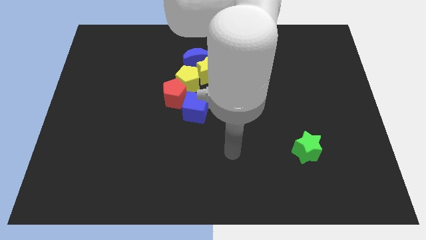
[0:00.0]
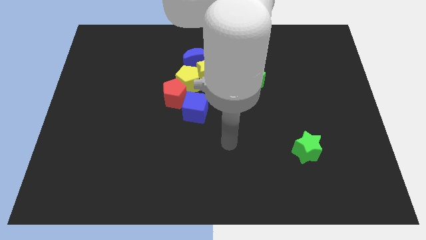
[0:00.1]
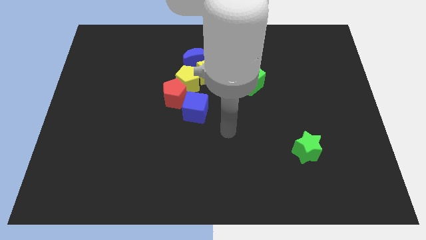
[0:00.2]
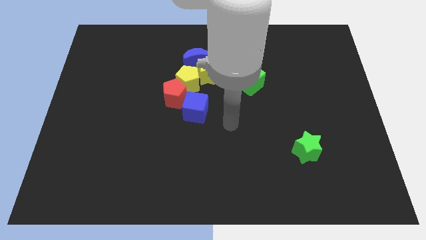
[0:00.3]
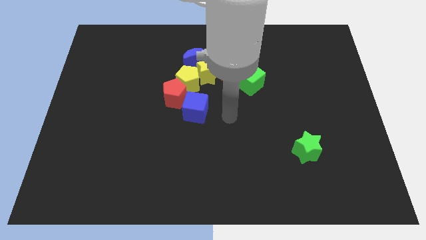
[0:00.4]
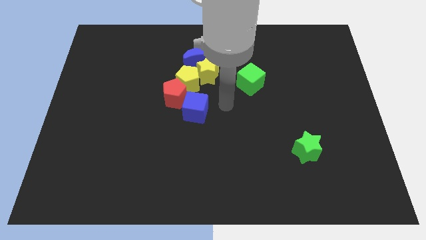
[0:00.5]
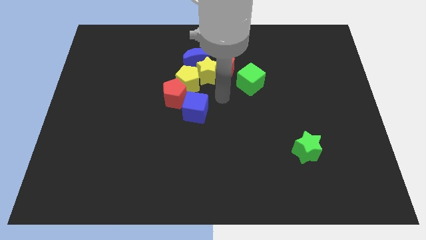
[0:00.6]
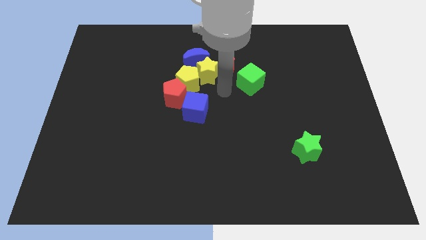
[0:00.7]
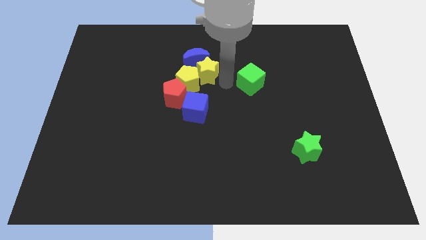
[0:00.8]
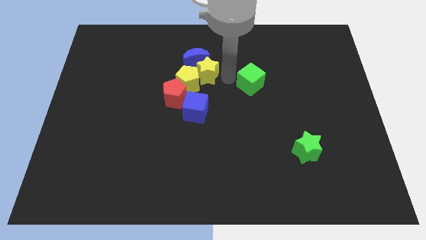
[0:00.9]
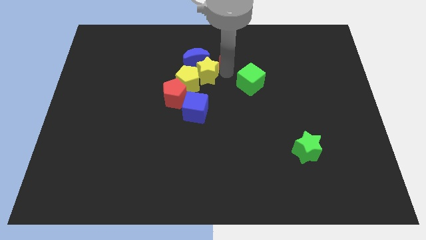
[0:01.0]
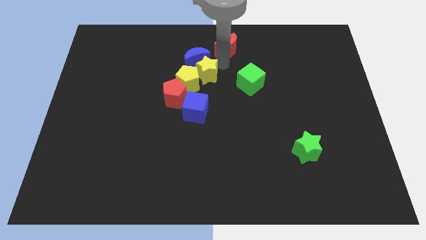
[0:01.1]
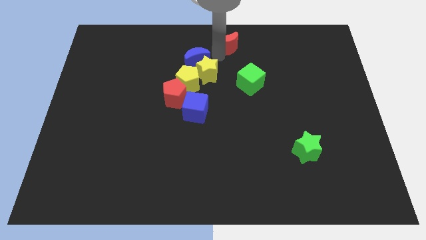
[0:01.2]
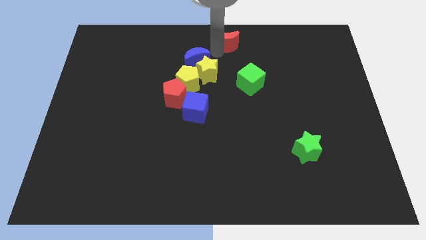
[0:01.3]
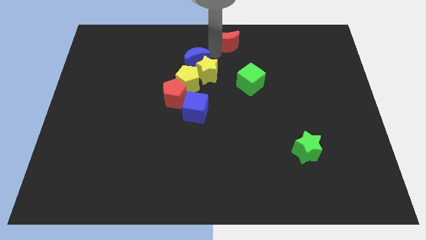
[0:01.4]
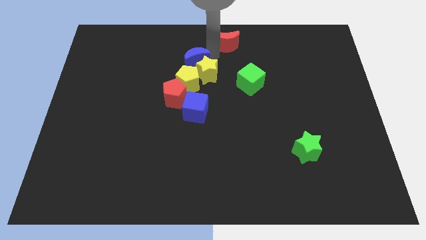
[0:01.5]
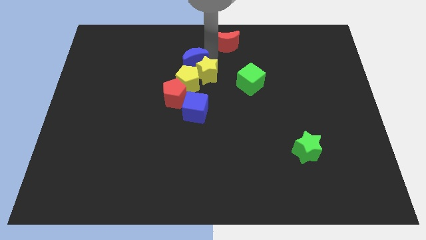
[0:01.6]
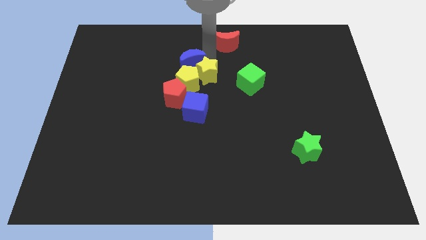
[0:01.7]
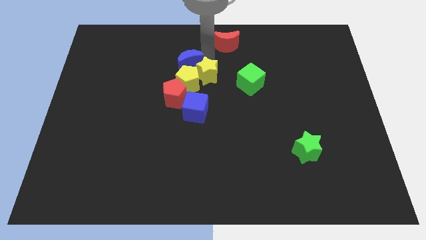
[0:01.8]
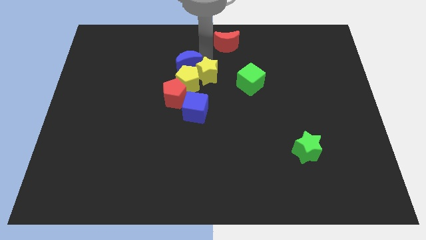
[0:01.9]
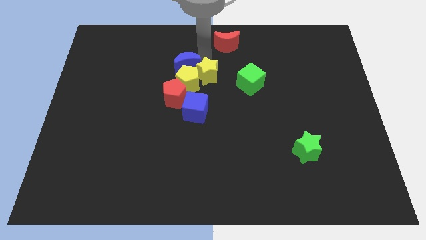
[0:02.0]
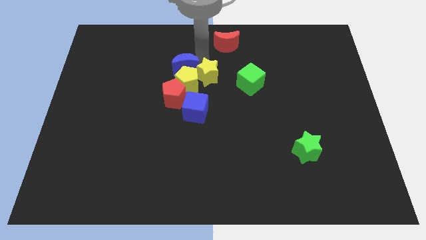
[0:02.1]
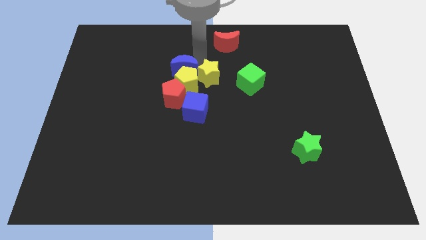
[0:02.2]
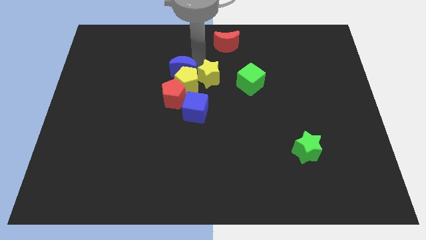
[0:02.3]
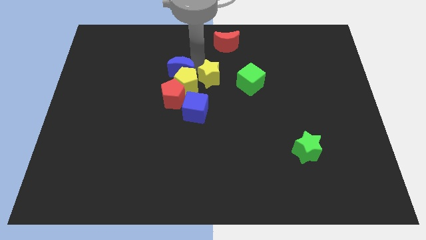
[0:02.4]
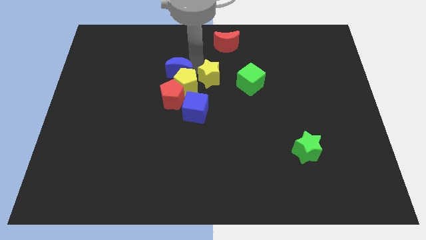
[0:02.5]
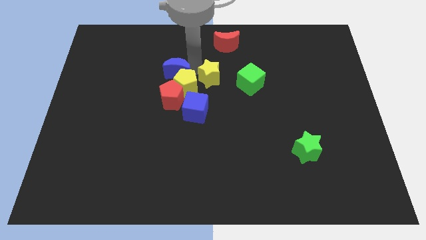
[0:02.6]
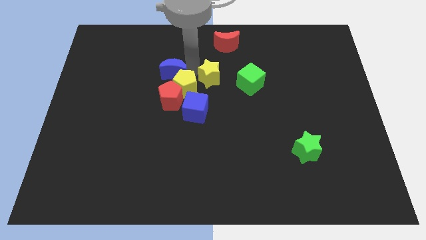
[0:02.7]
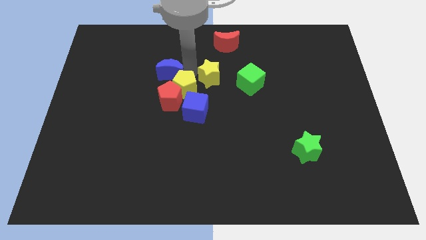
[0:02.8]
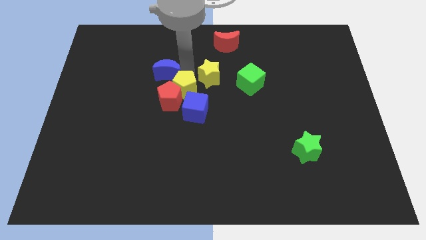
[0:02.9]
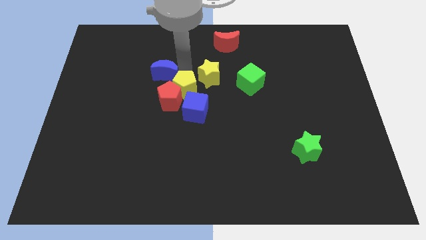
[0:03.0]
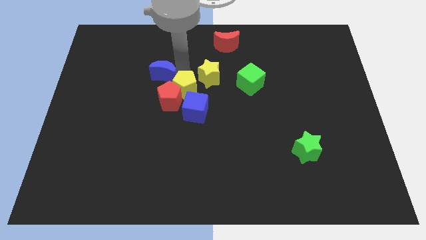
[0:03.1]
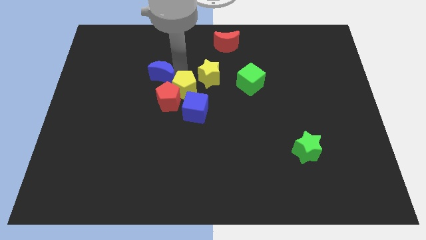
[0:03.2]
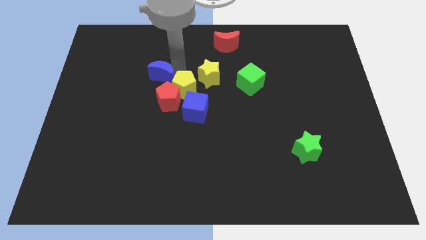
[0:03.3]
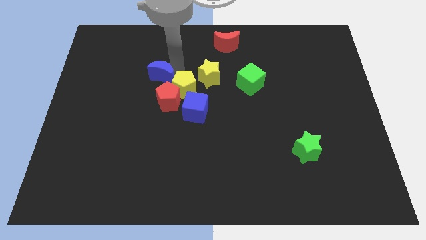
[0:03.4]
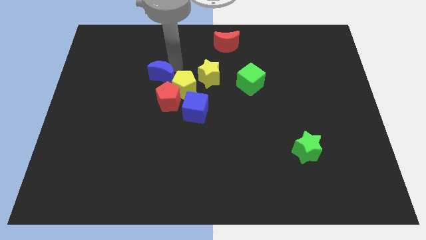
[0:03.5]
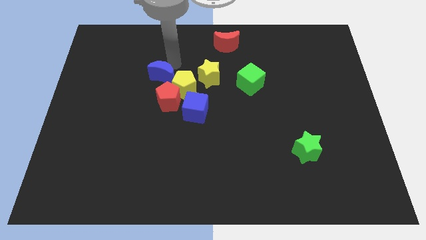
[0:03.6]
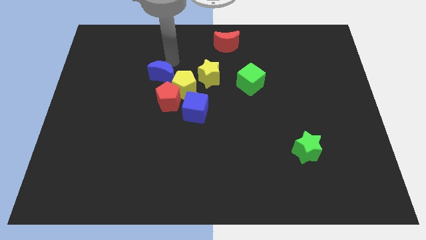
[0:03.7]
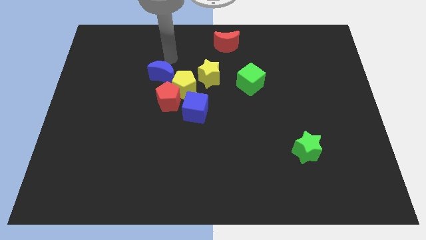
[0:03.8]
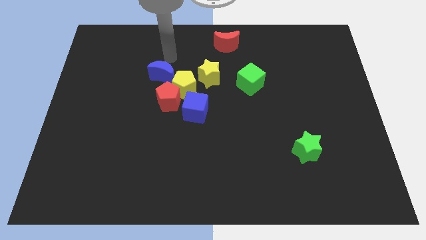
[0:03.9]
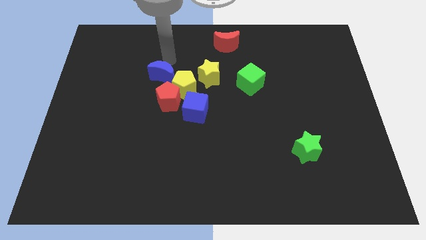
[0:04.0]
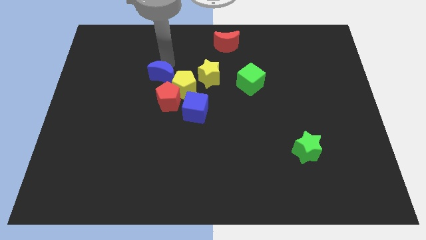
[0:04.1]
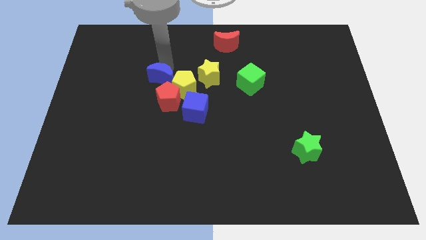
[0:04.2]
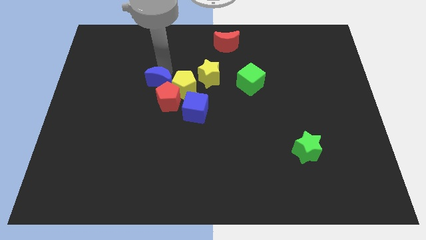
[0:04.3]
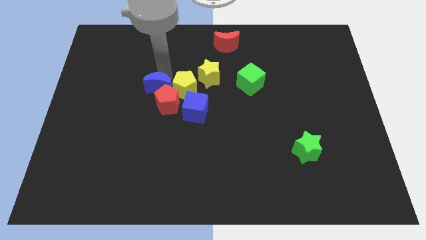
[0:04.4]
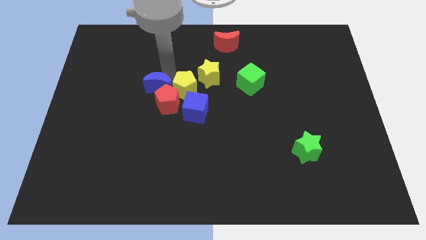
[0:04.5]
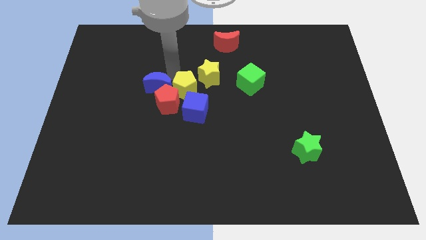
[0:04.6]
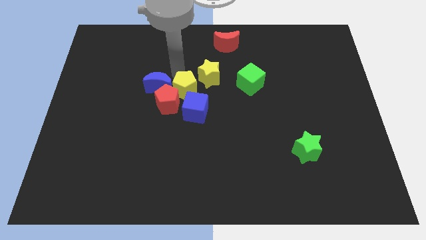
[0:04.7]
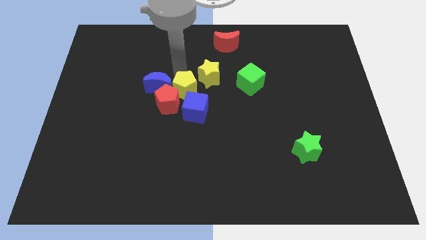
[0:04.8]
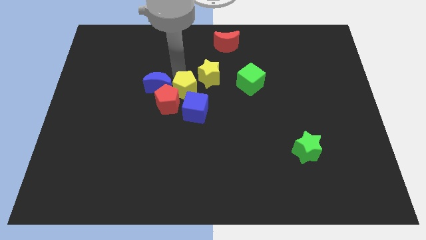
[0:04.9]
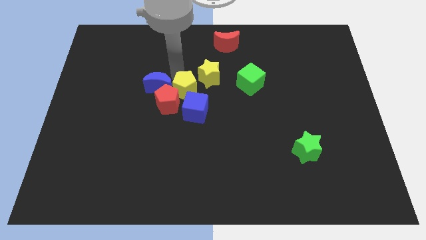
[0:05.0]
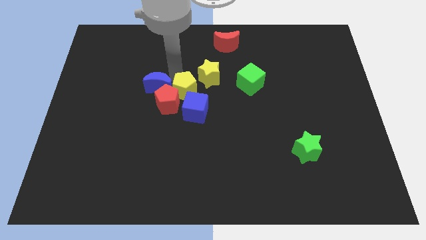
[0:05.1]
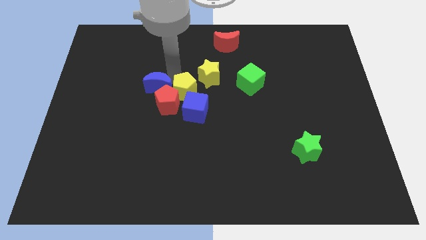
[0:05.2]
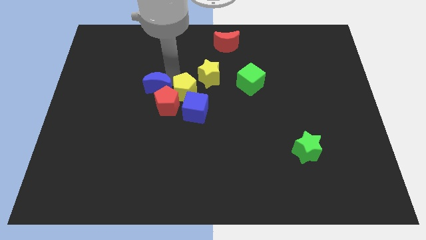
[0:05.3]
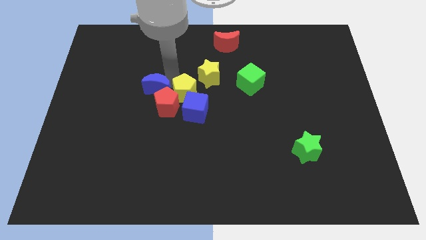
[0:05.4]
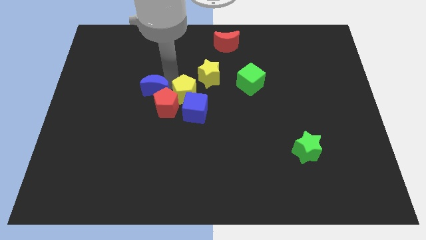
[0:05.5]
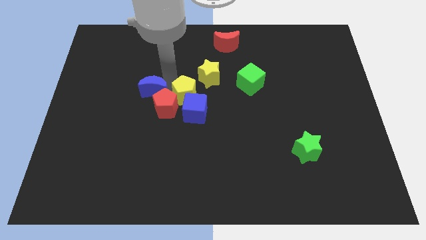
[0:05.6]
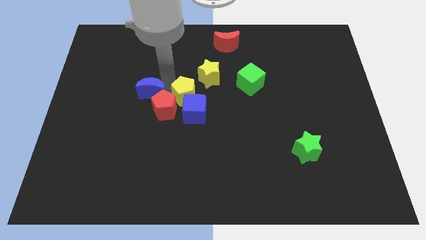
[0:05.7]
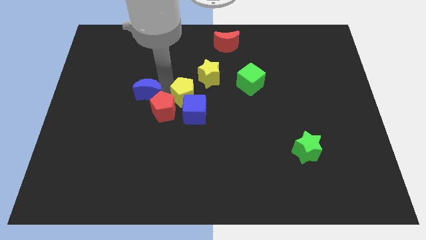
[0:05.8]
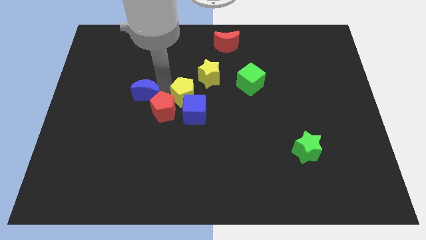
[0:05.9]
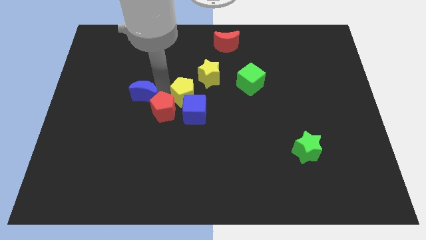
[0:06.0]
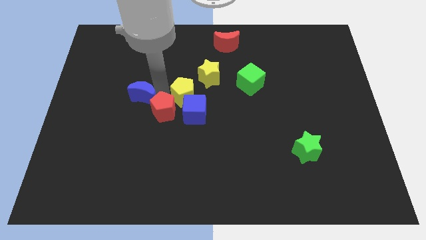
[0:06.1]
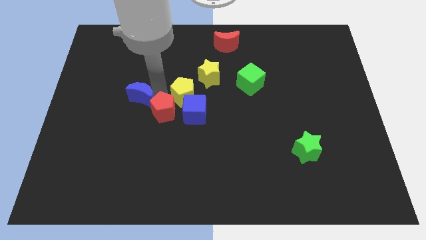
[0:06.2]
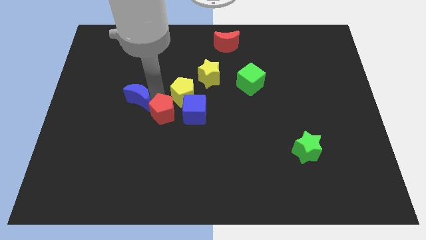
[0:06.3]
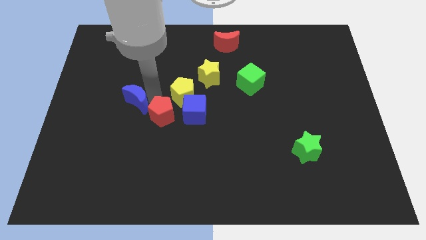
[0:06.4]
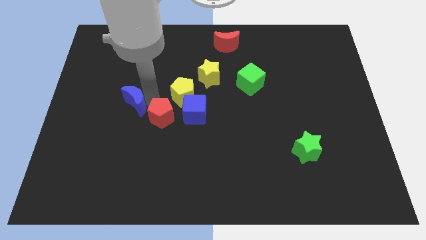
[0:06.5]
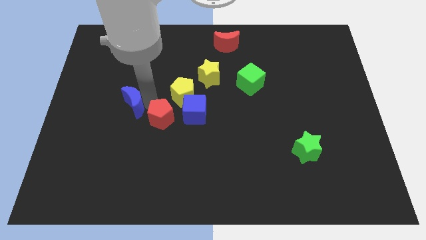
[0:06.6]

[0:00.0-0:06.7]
slide the blue moon downwards and left diagonally

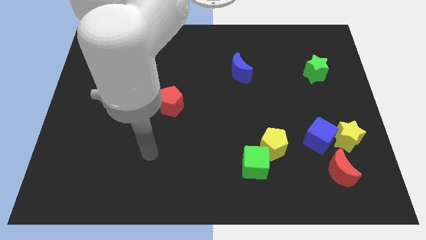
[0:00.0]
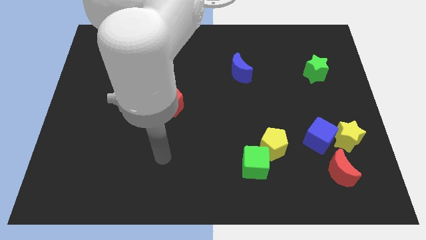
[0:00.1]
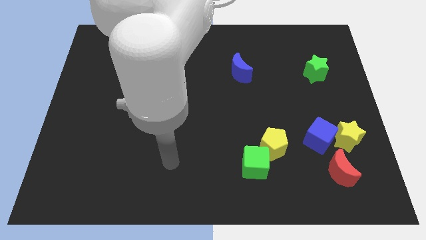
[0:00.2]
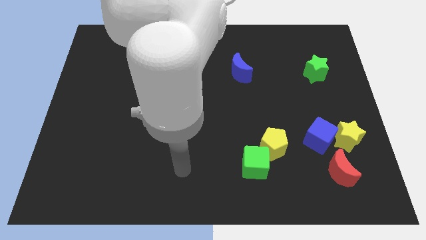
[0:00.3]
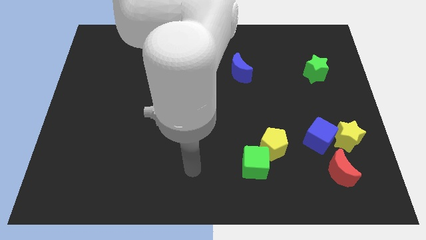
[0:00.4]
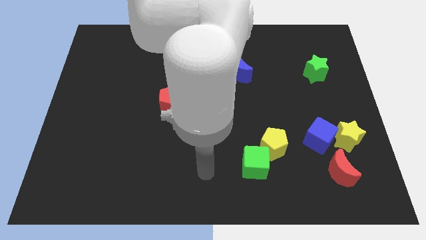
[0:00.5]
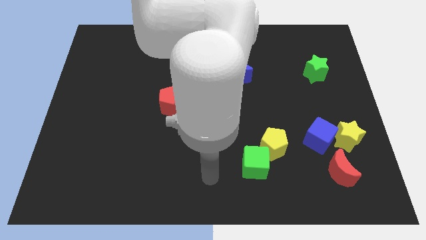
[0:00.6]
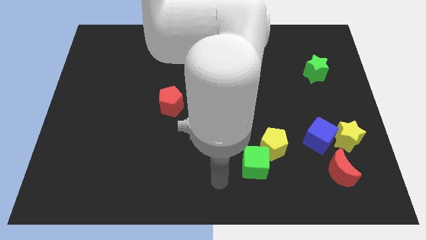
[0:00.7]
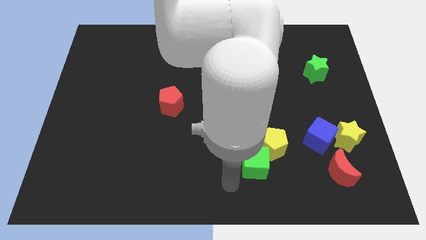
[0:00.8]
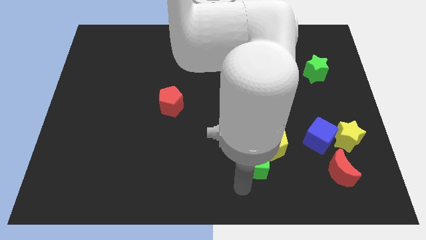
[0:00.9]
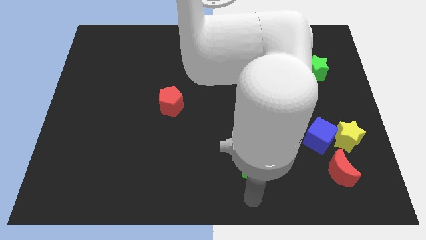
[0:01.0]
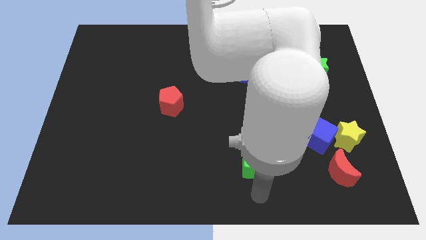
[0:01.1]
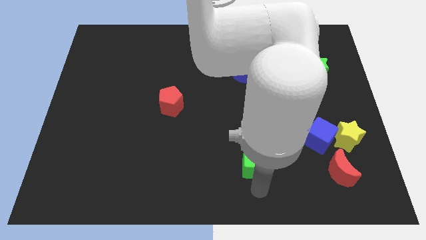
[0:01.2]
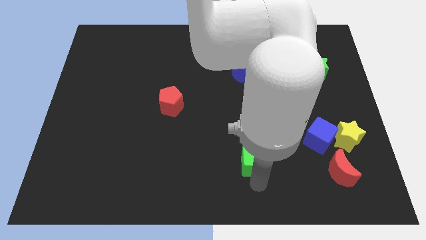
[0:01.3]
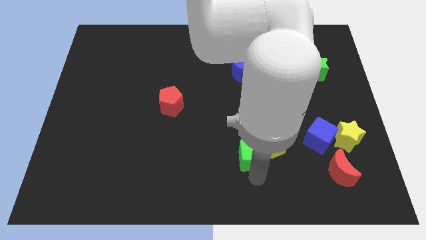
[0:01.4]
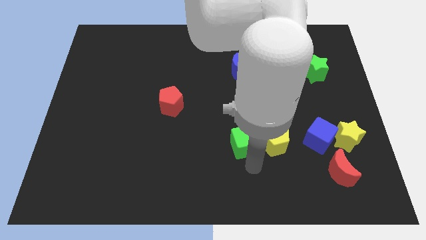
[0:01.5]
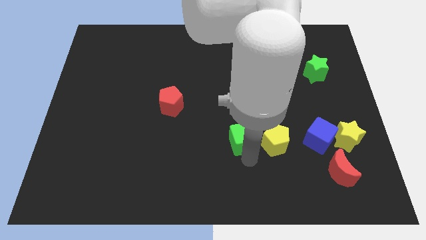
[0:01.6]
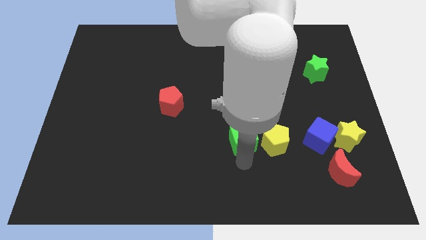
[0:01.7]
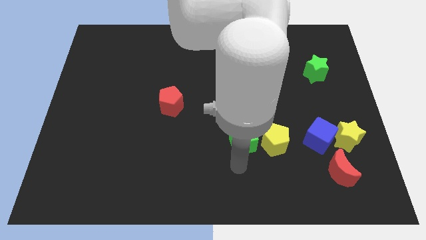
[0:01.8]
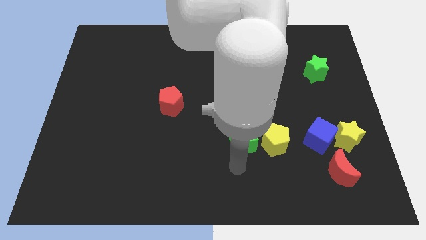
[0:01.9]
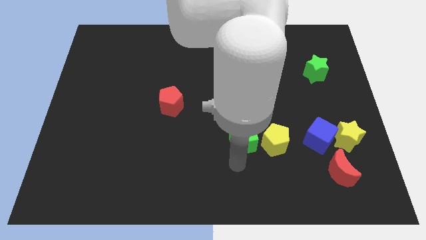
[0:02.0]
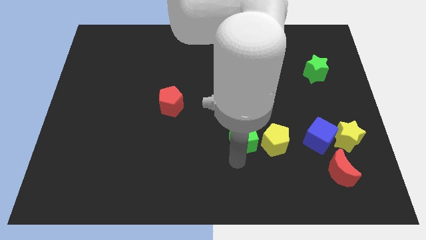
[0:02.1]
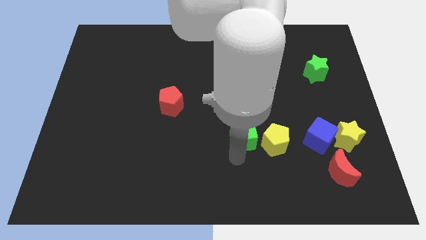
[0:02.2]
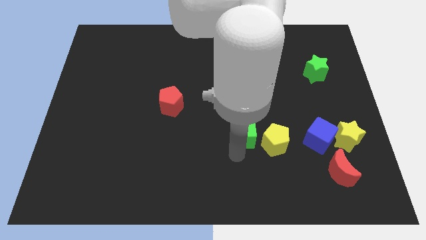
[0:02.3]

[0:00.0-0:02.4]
push the green cube somewhat upwards
